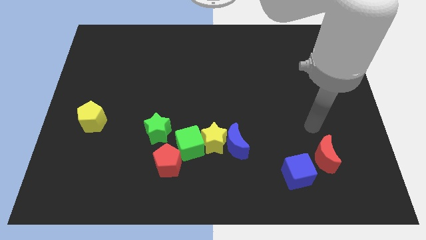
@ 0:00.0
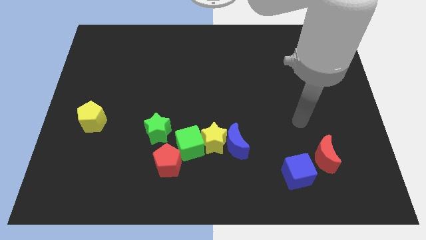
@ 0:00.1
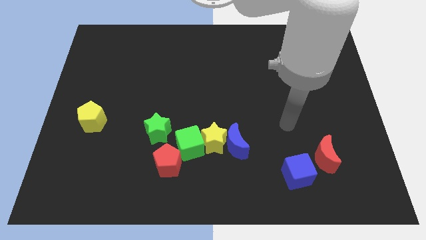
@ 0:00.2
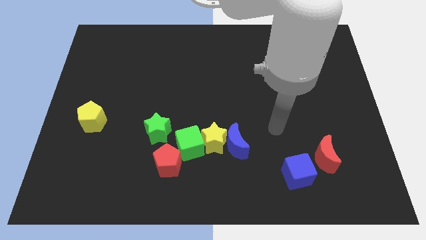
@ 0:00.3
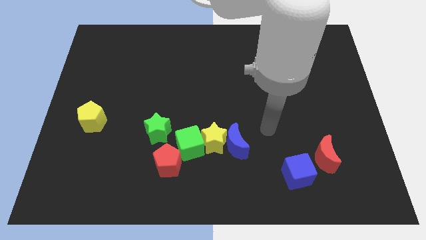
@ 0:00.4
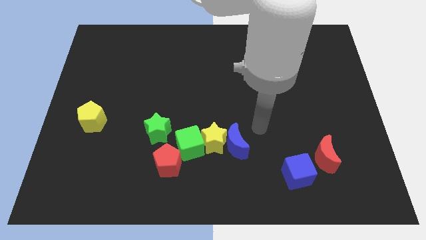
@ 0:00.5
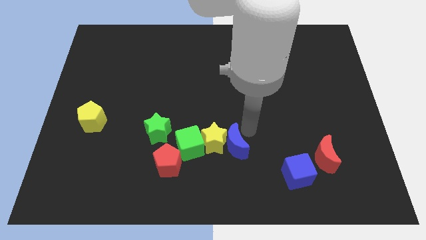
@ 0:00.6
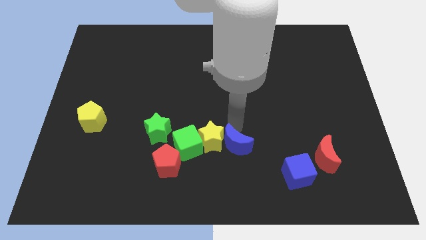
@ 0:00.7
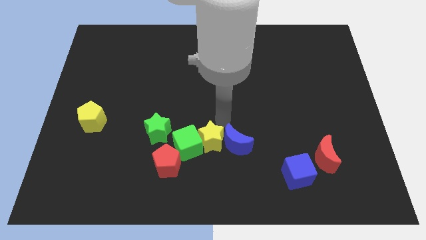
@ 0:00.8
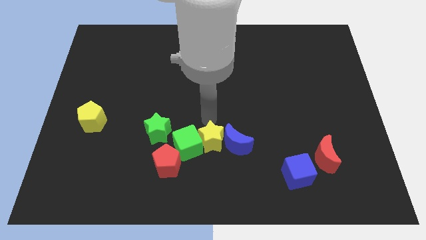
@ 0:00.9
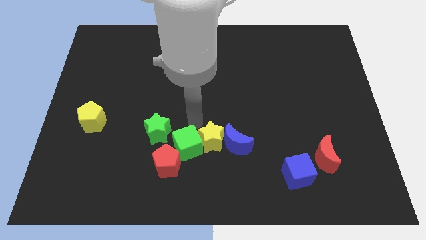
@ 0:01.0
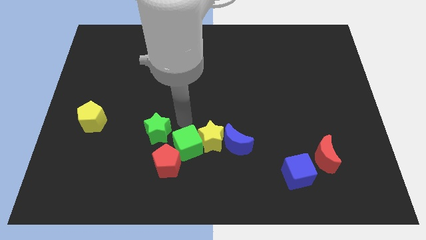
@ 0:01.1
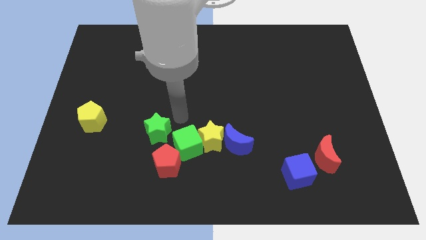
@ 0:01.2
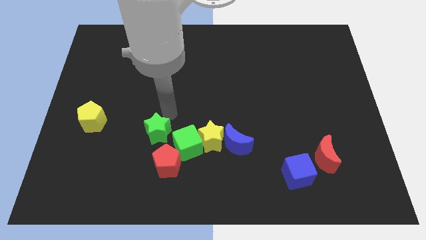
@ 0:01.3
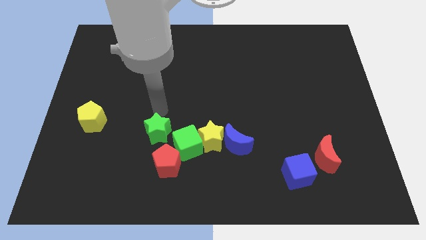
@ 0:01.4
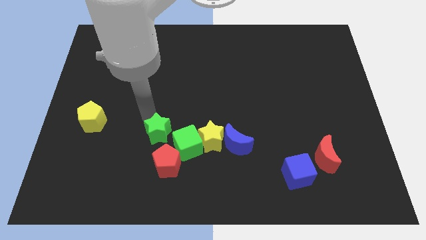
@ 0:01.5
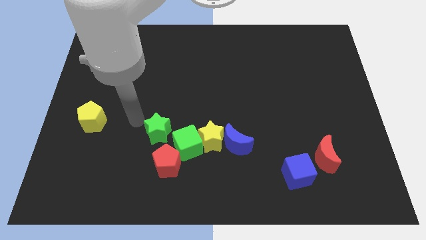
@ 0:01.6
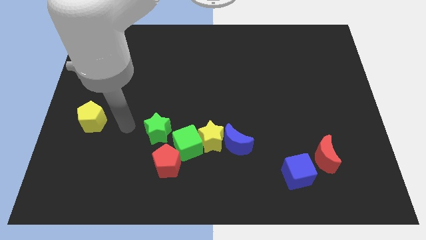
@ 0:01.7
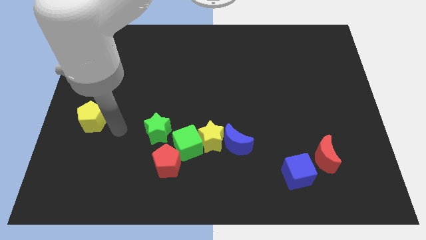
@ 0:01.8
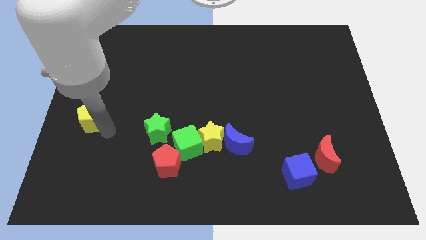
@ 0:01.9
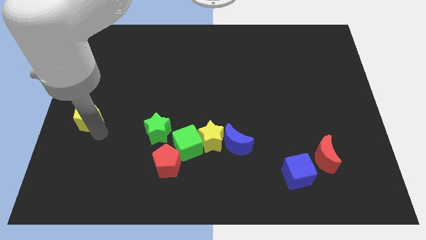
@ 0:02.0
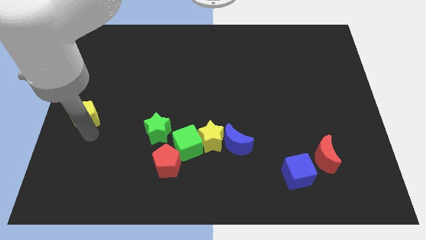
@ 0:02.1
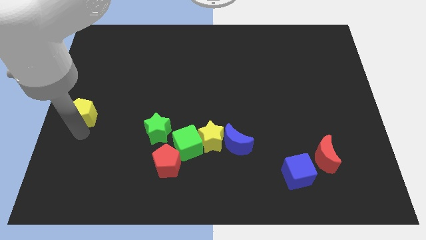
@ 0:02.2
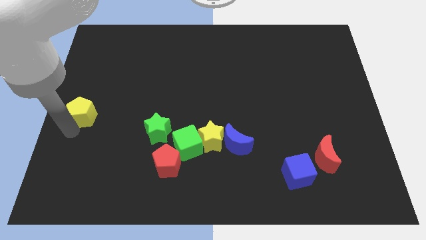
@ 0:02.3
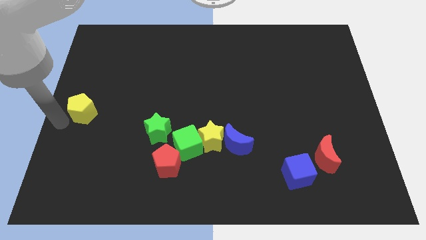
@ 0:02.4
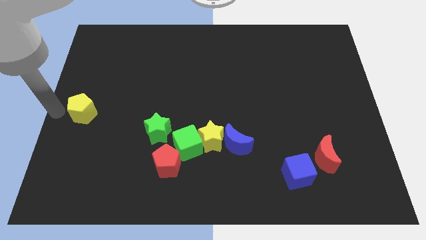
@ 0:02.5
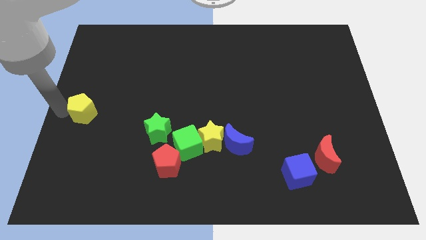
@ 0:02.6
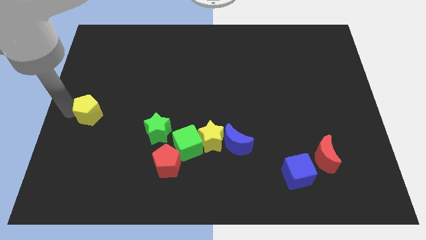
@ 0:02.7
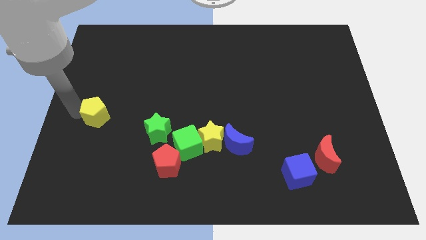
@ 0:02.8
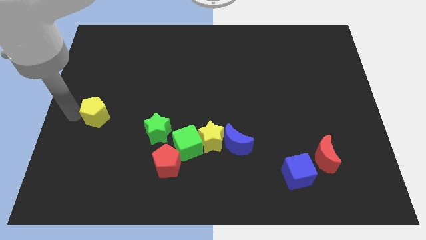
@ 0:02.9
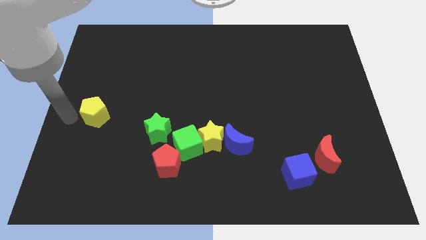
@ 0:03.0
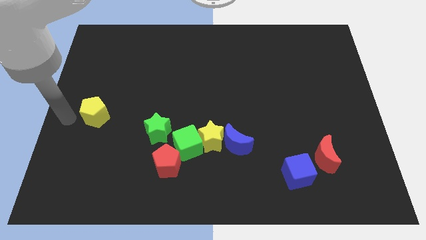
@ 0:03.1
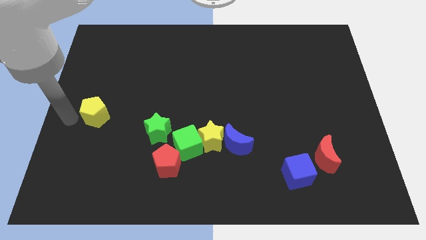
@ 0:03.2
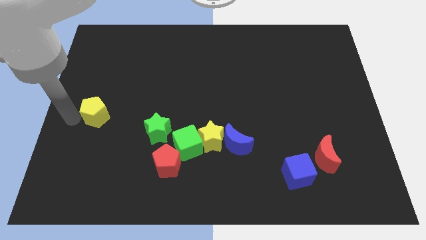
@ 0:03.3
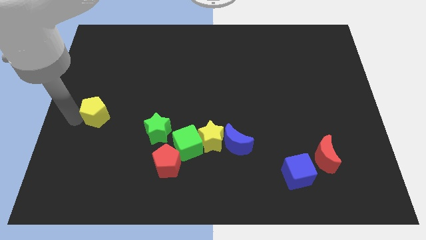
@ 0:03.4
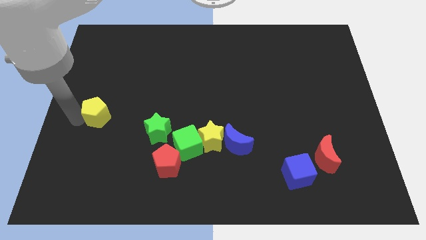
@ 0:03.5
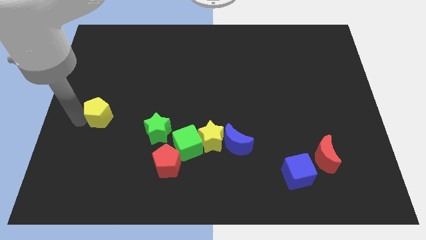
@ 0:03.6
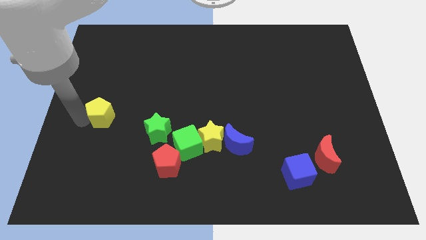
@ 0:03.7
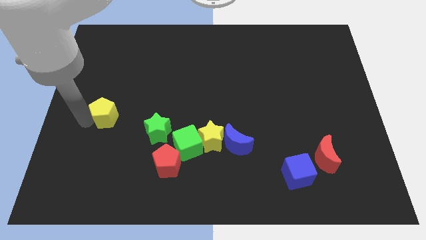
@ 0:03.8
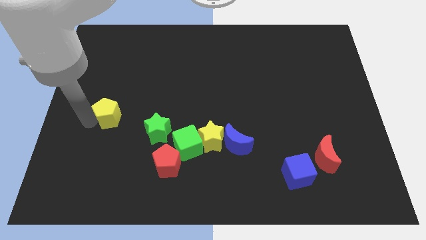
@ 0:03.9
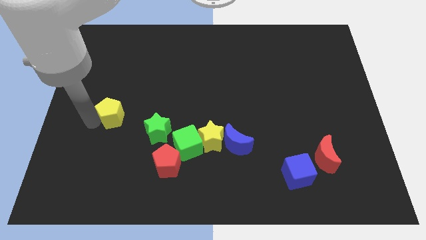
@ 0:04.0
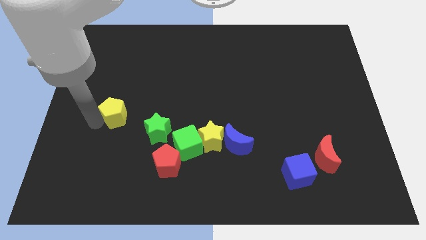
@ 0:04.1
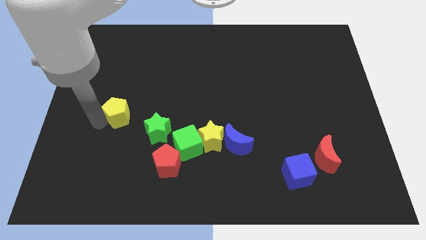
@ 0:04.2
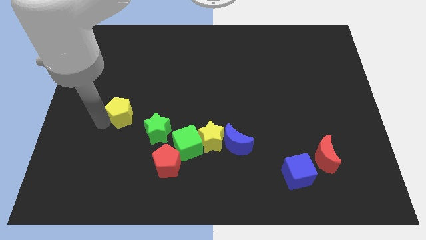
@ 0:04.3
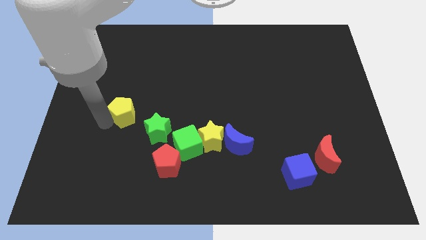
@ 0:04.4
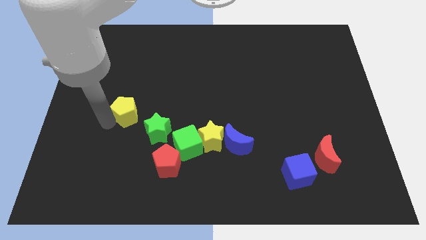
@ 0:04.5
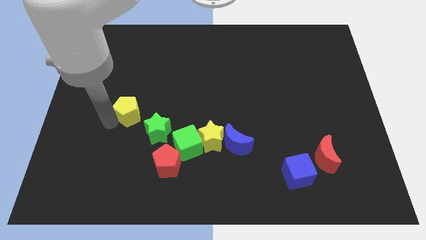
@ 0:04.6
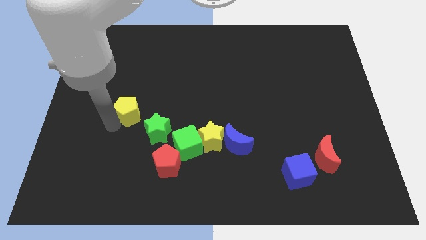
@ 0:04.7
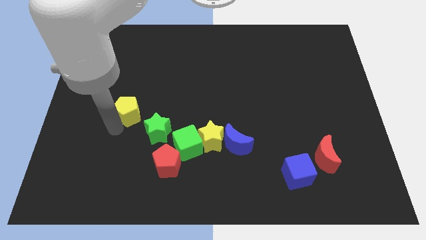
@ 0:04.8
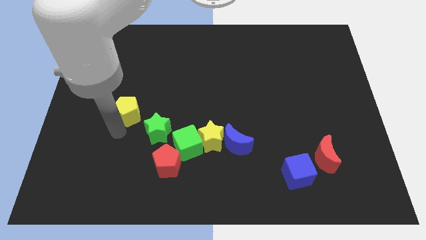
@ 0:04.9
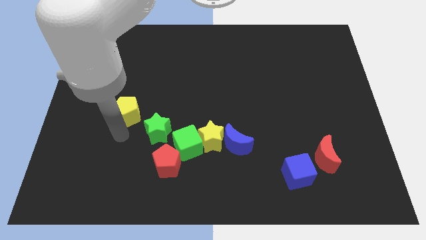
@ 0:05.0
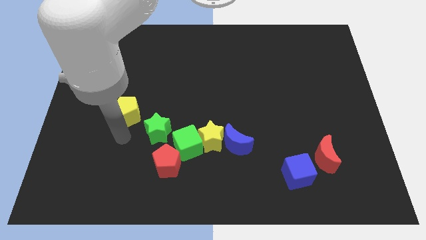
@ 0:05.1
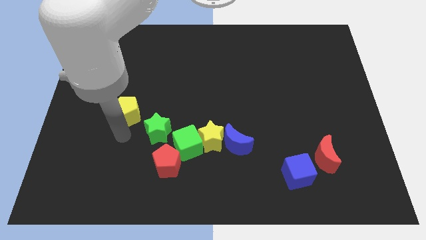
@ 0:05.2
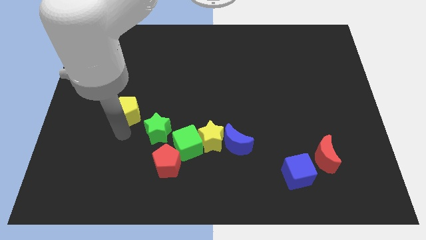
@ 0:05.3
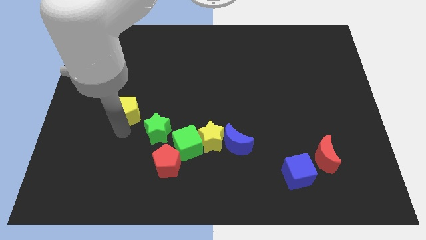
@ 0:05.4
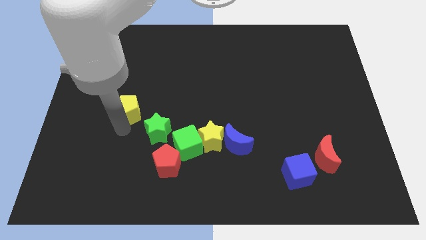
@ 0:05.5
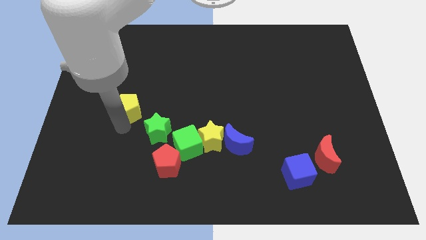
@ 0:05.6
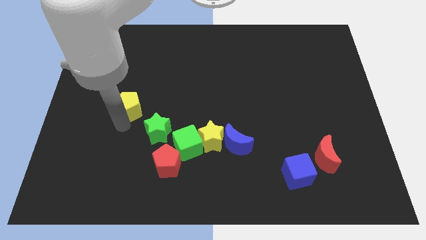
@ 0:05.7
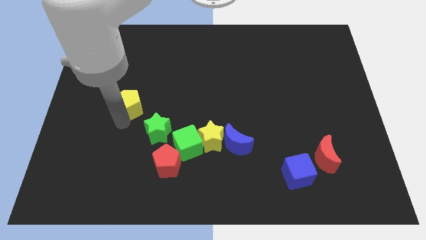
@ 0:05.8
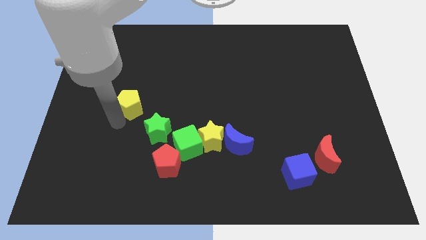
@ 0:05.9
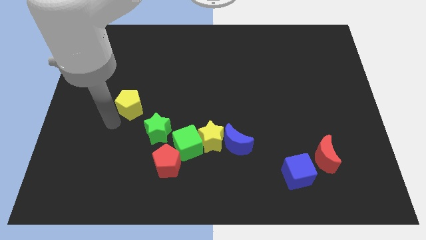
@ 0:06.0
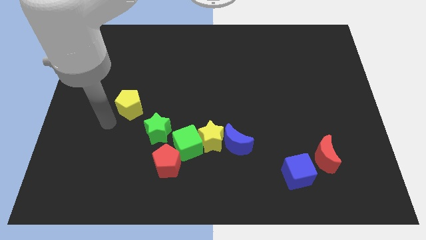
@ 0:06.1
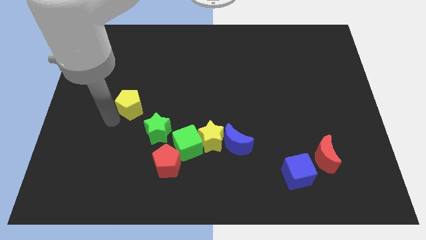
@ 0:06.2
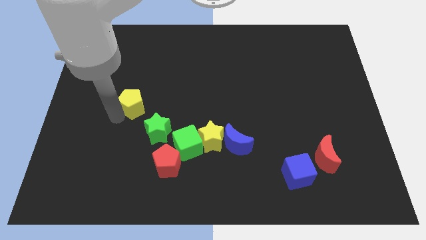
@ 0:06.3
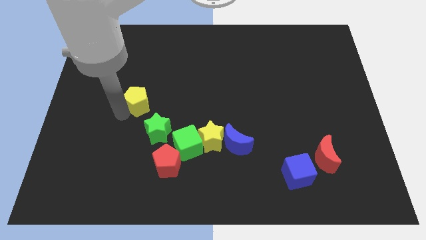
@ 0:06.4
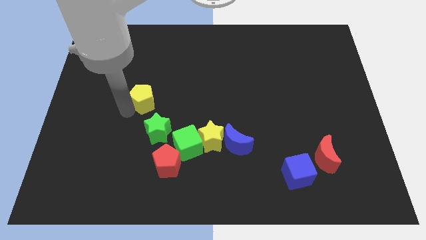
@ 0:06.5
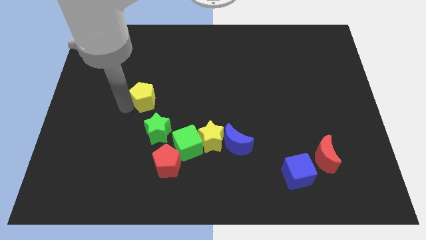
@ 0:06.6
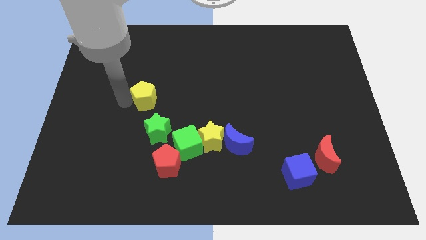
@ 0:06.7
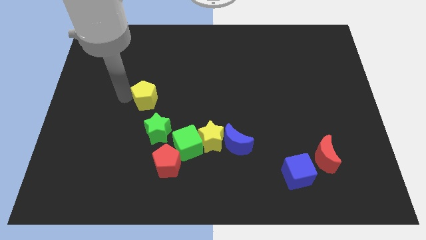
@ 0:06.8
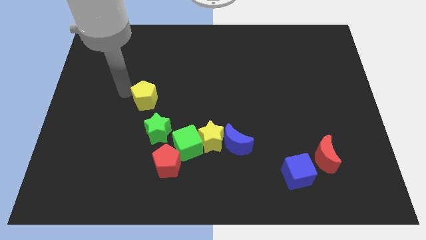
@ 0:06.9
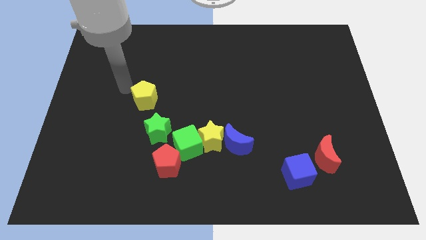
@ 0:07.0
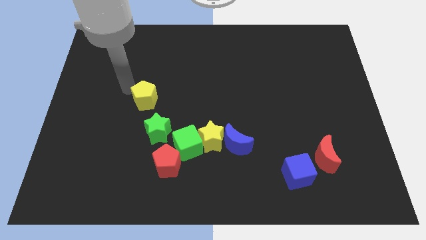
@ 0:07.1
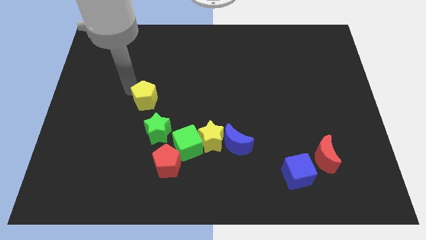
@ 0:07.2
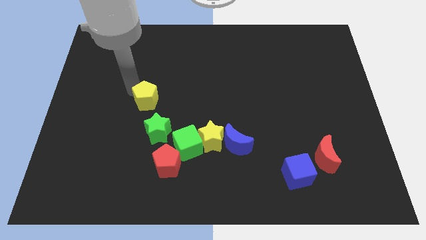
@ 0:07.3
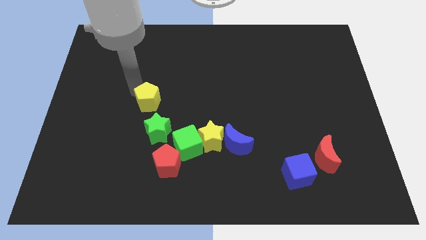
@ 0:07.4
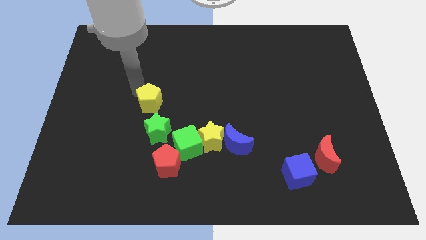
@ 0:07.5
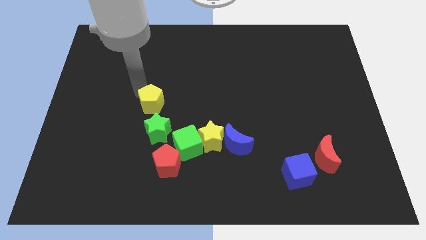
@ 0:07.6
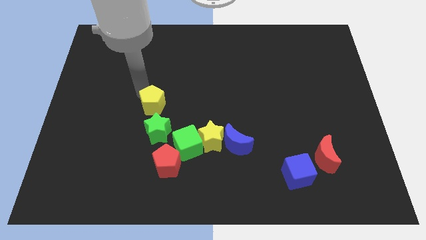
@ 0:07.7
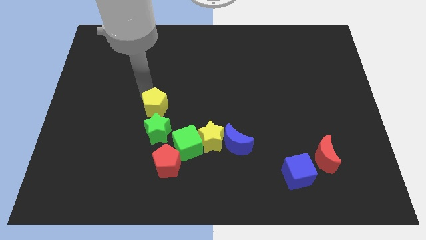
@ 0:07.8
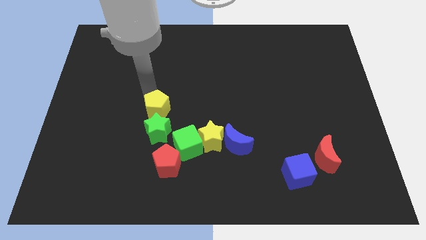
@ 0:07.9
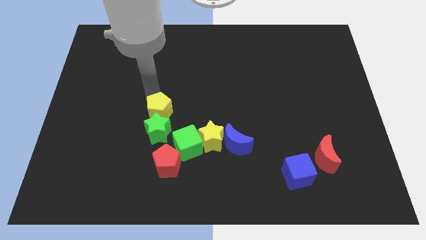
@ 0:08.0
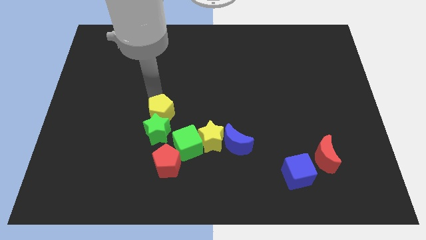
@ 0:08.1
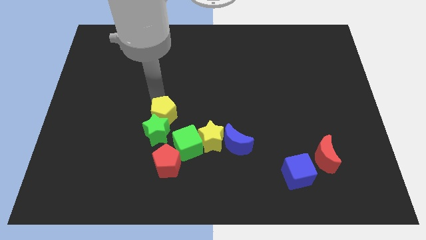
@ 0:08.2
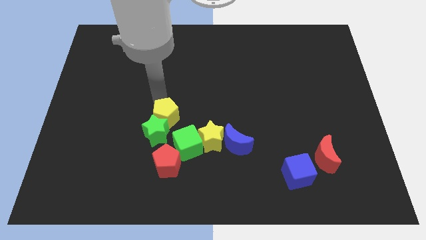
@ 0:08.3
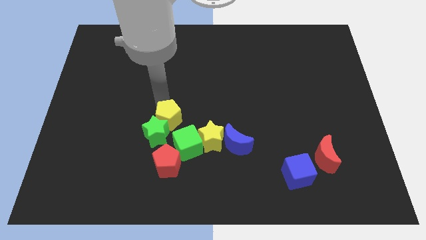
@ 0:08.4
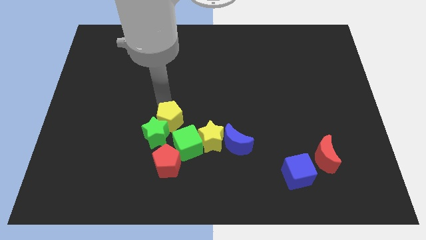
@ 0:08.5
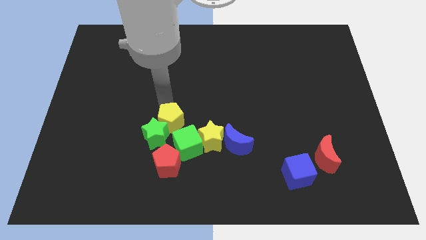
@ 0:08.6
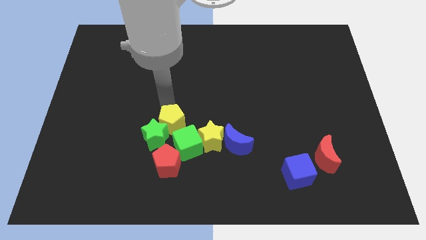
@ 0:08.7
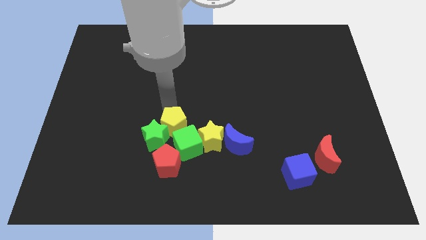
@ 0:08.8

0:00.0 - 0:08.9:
move the yellow pentagon close to the green cube
